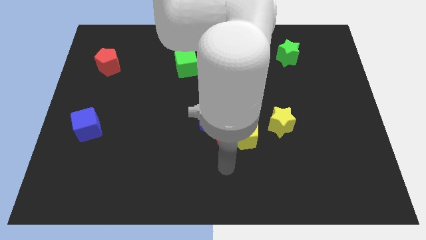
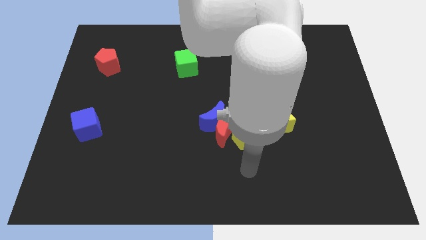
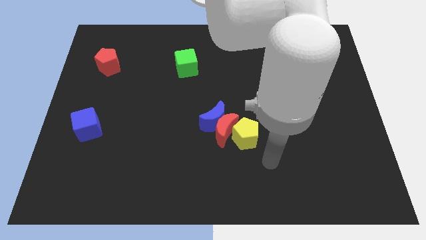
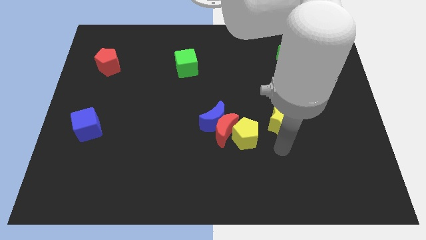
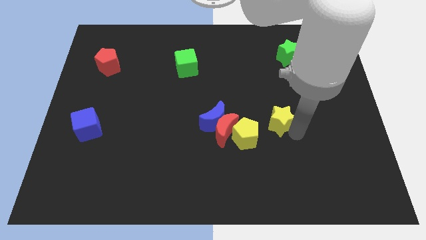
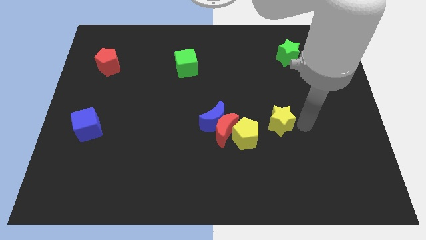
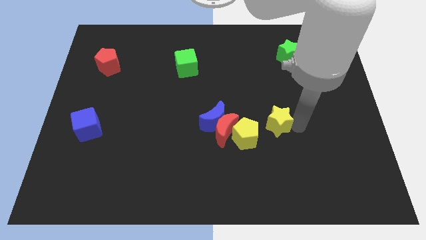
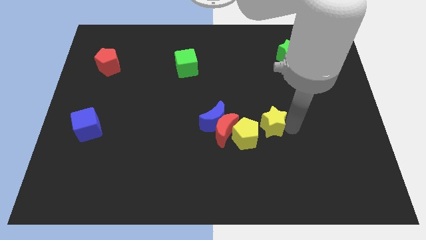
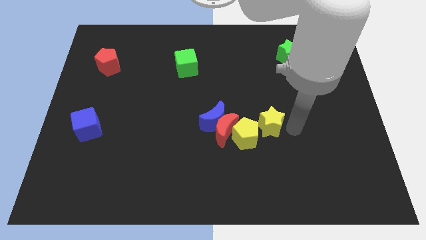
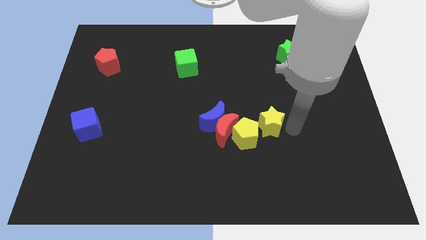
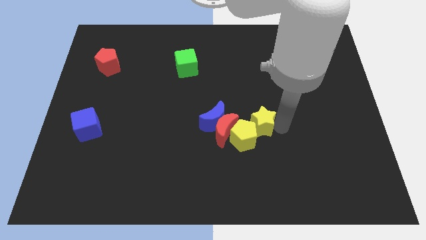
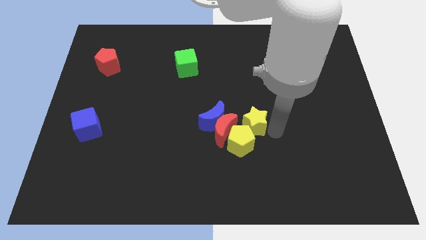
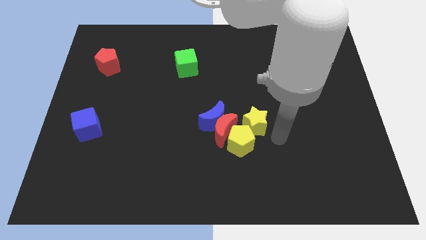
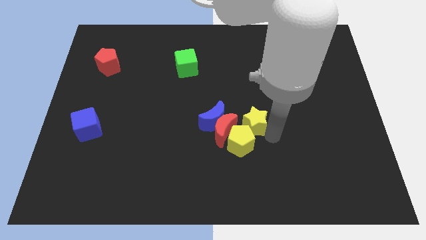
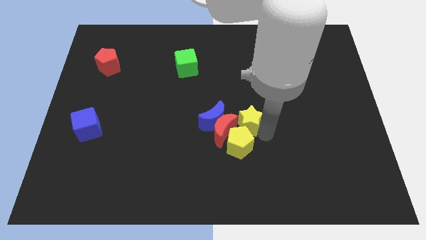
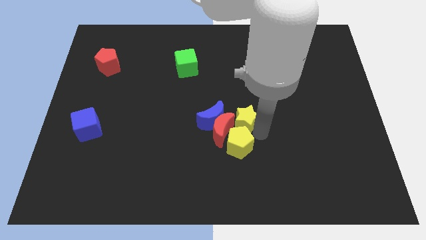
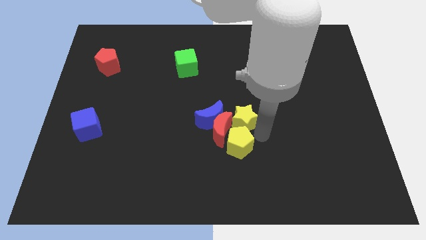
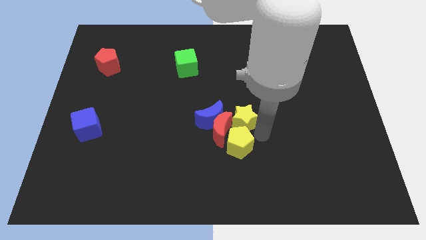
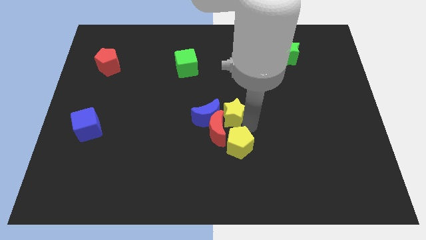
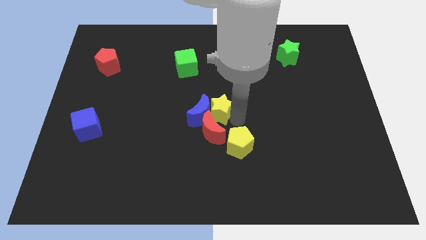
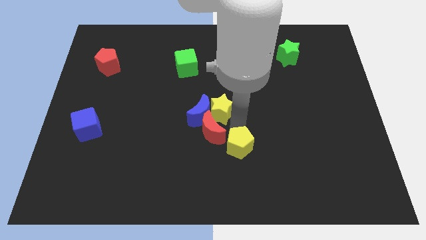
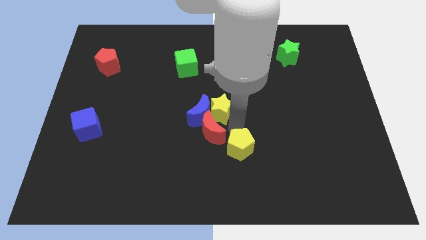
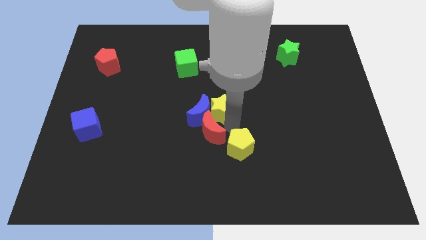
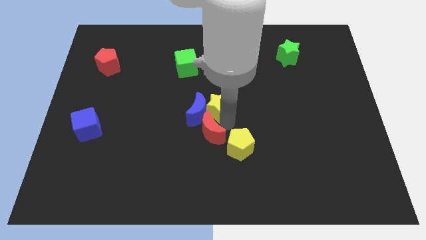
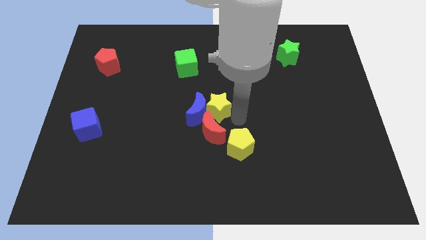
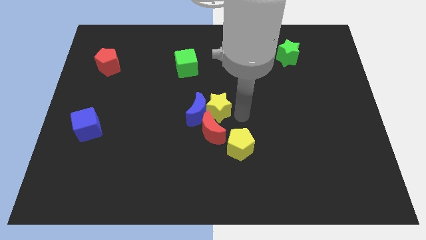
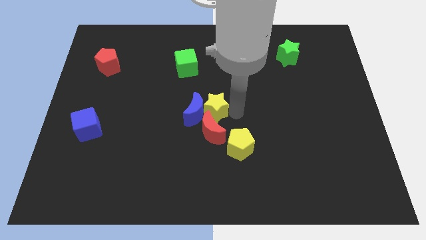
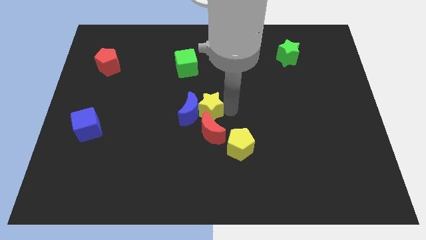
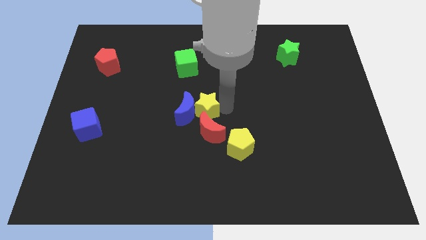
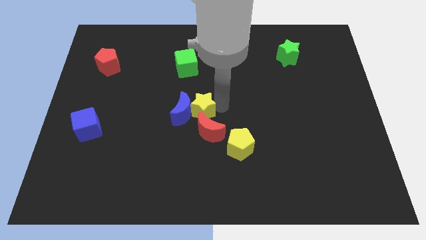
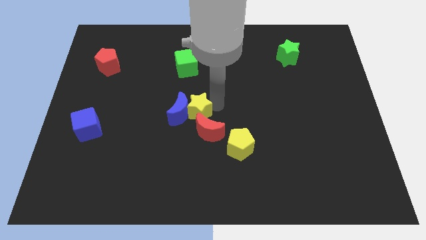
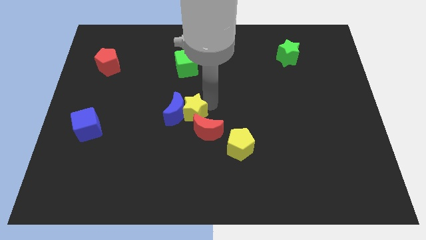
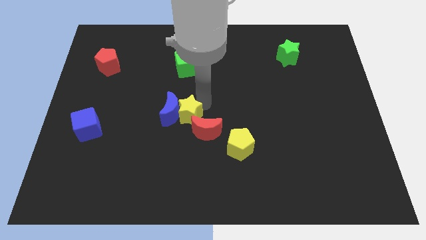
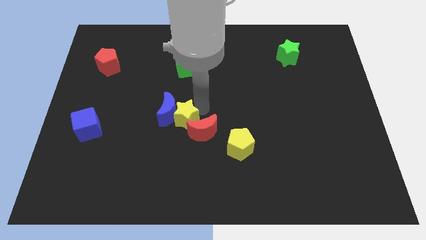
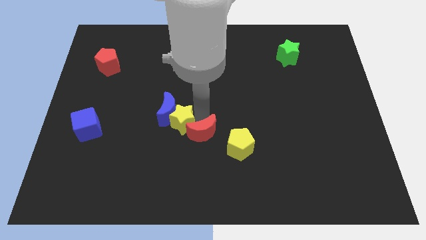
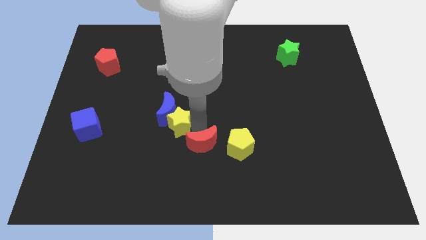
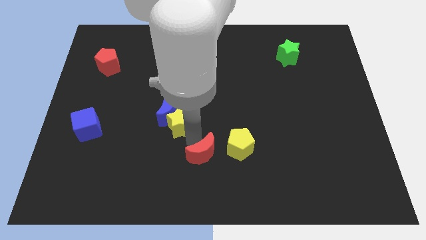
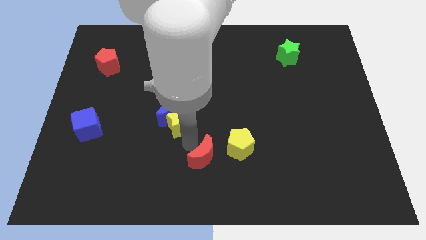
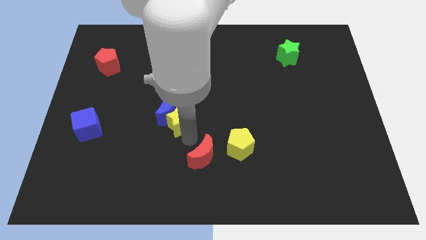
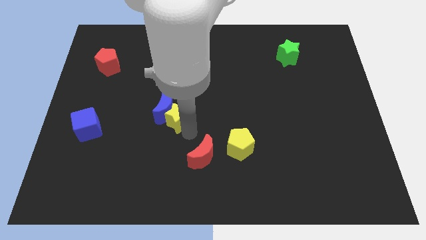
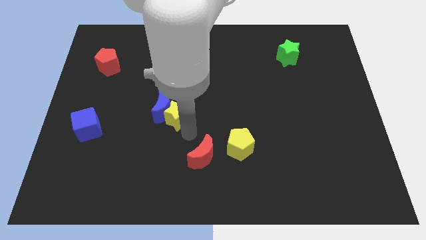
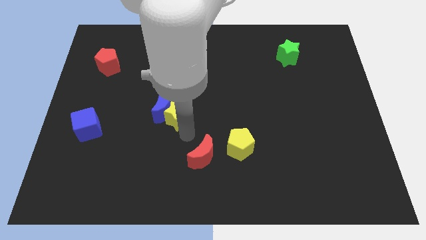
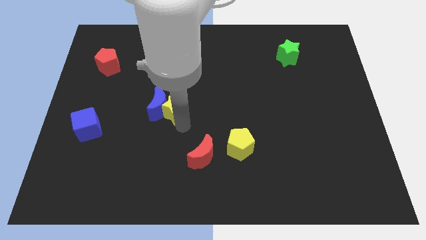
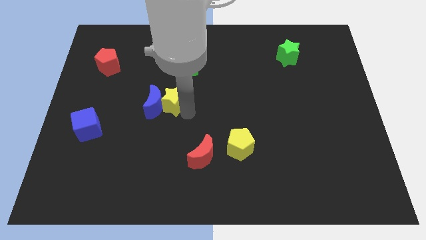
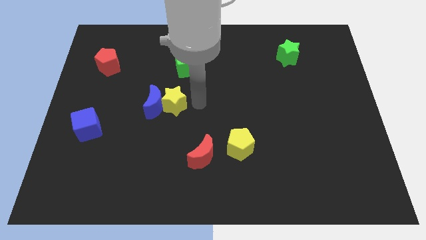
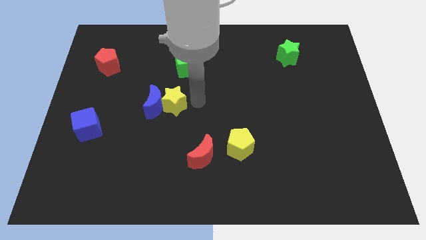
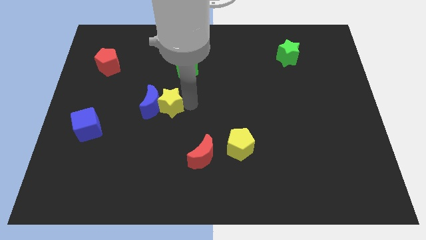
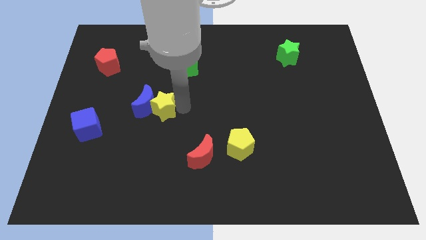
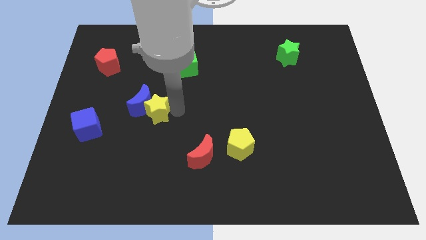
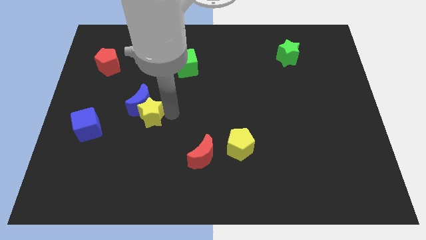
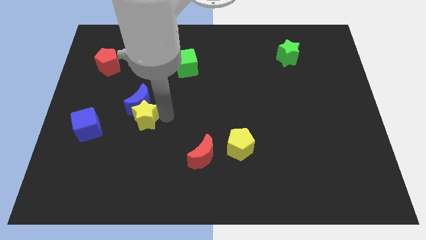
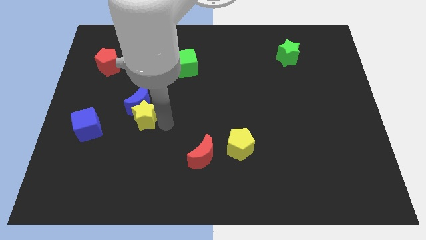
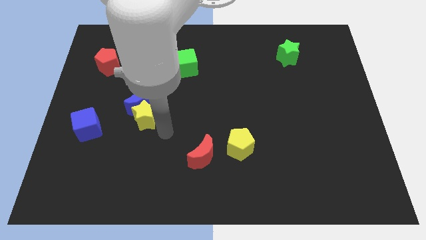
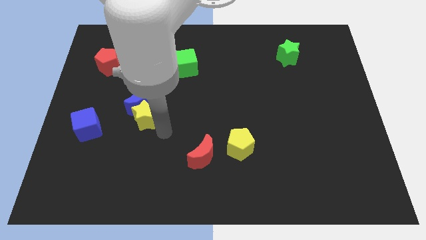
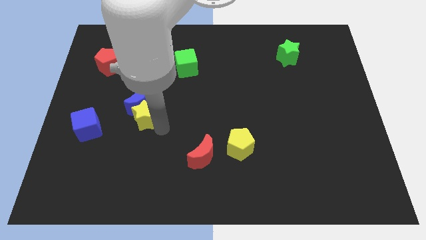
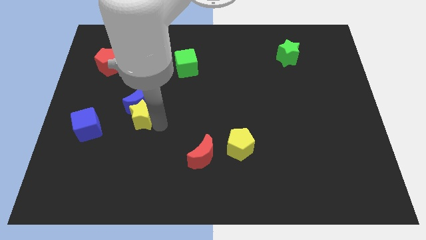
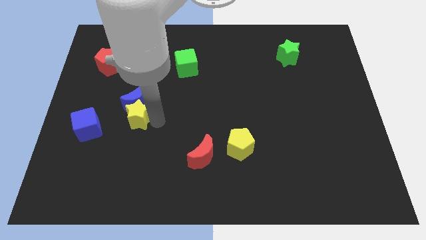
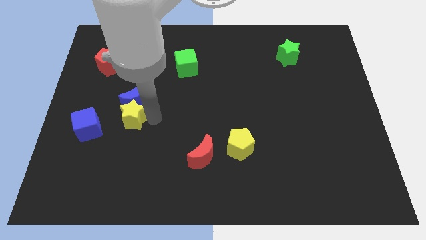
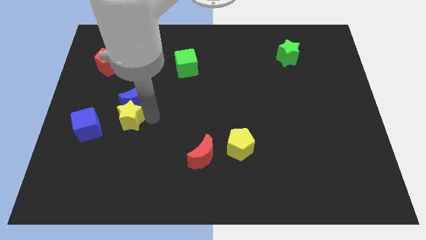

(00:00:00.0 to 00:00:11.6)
put the yellow star to the top right side of the blue cube

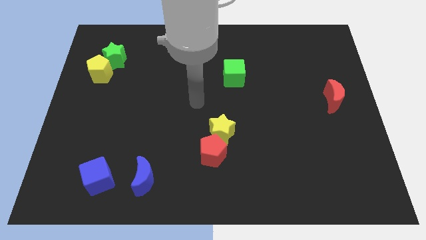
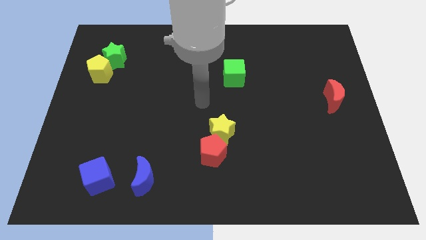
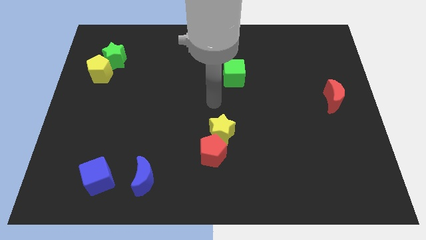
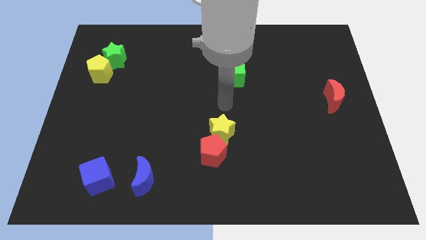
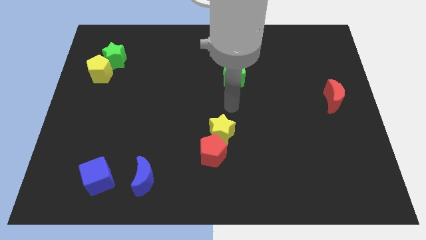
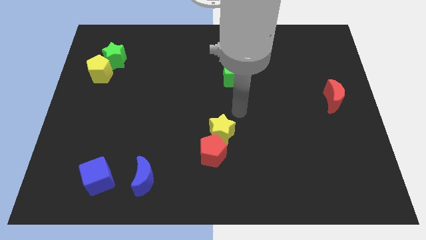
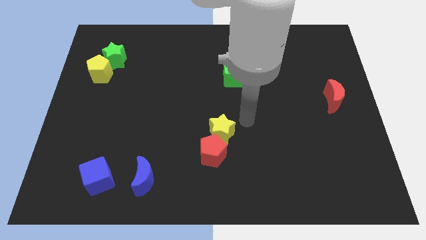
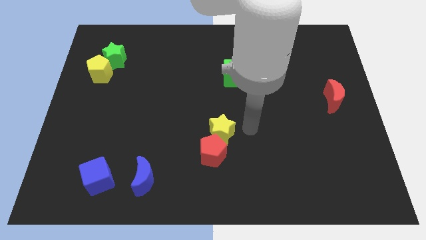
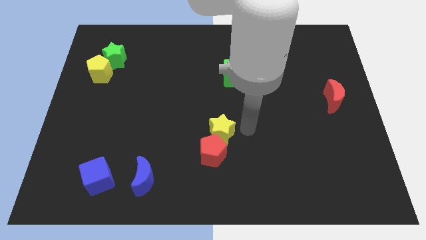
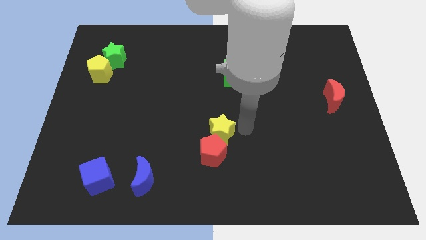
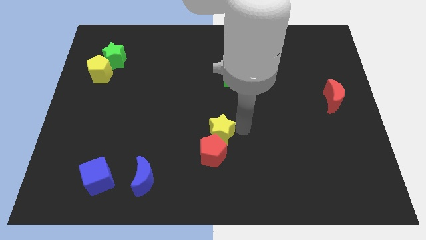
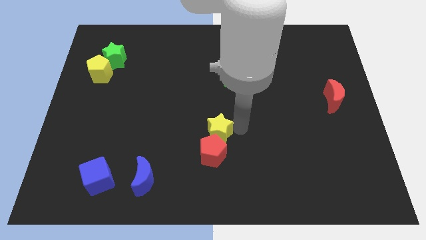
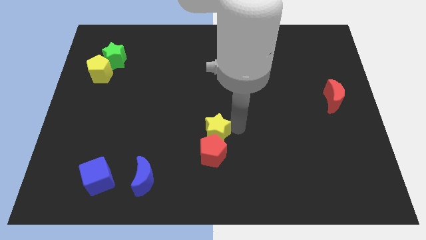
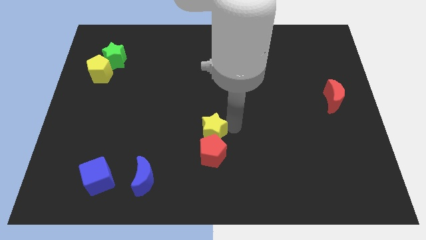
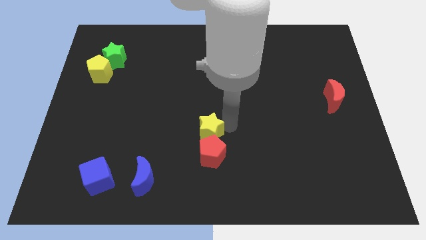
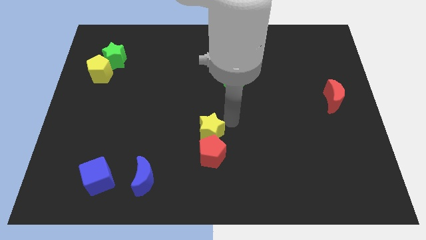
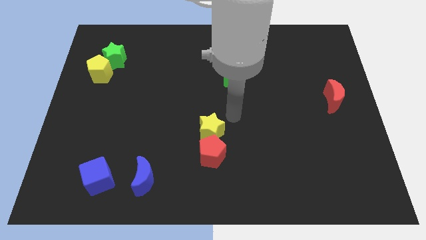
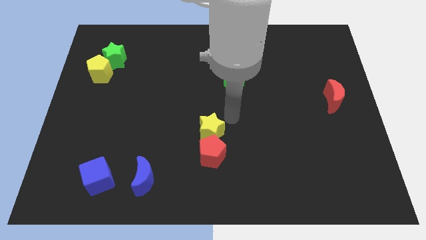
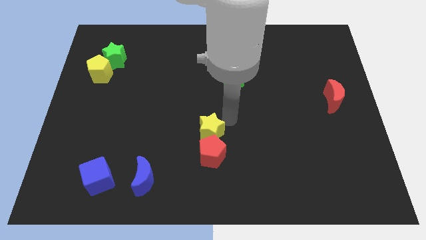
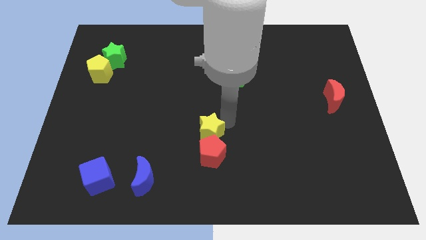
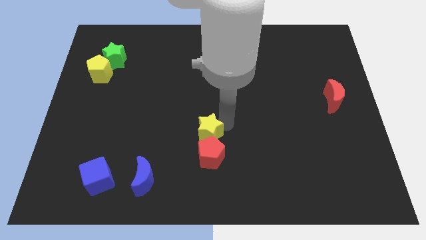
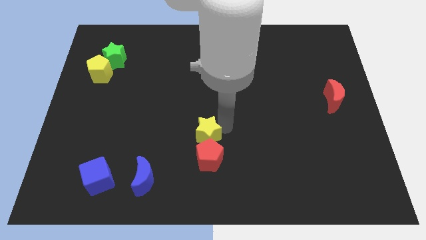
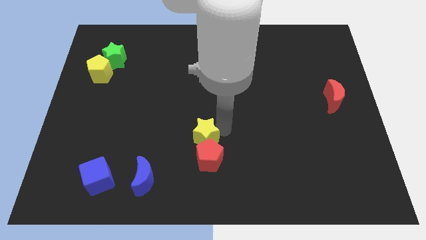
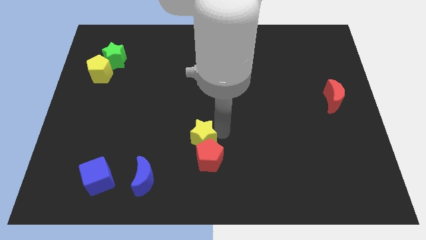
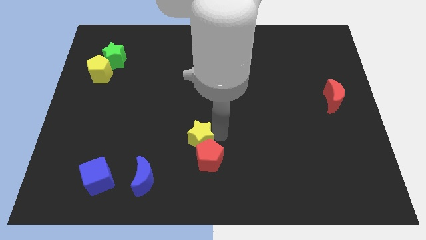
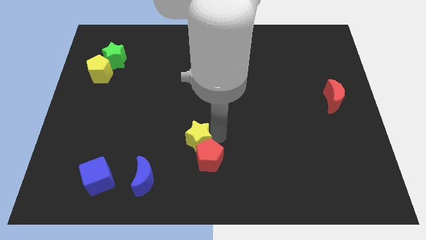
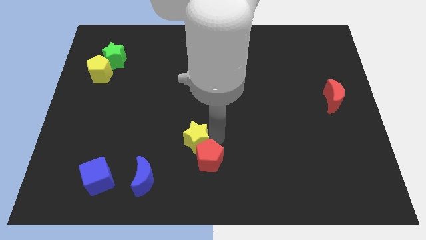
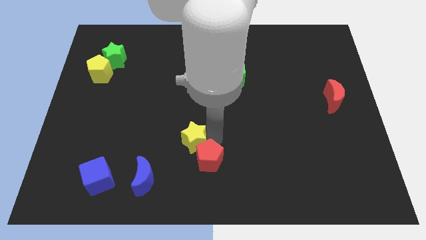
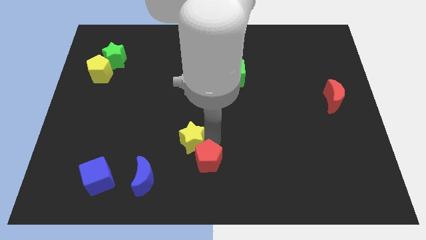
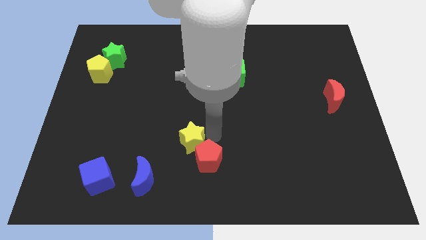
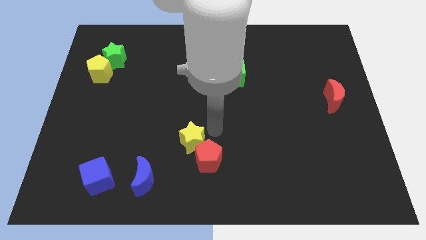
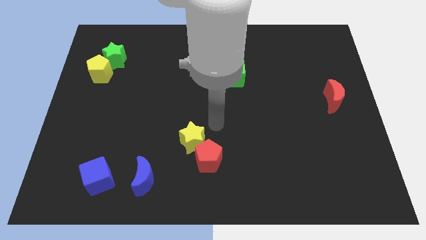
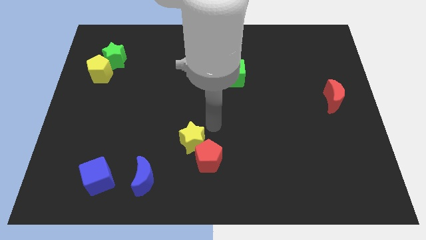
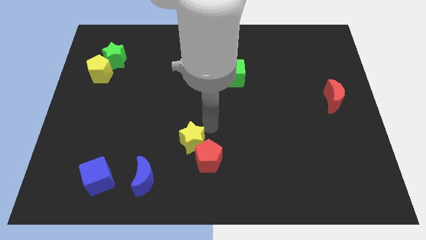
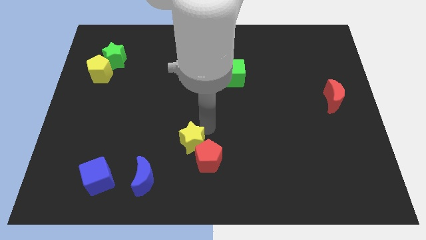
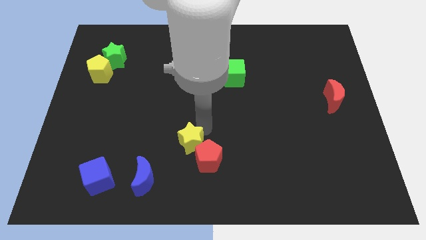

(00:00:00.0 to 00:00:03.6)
move the yellow star diagonally up and to the right of the blue moon
